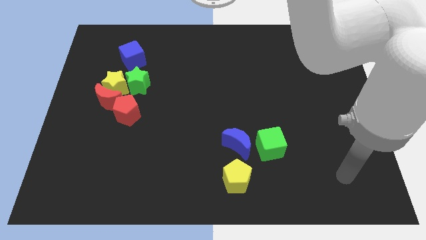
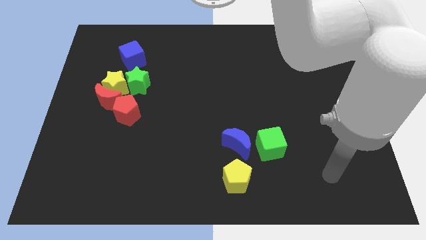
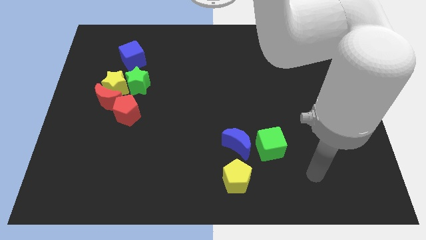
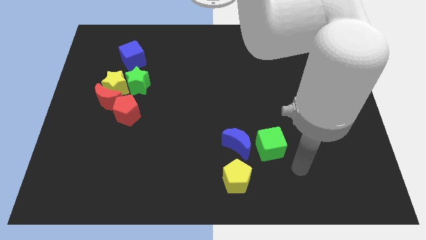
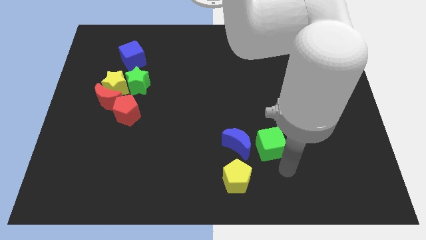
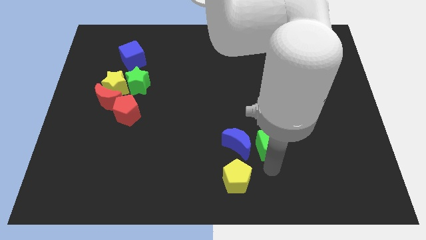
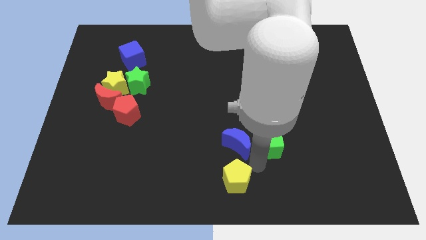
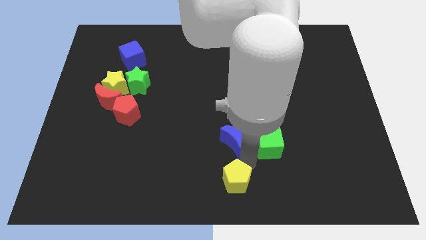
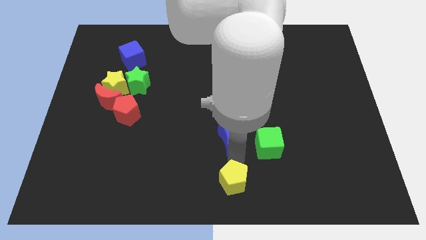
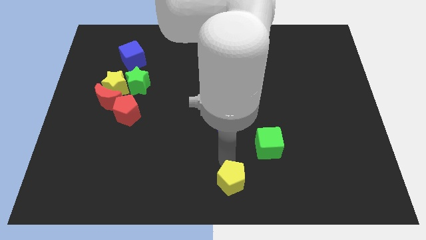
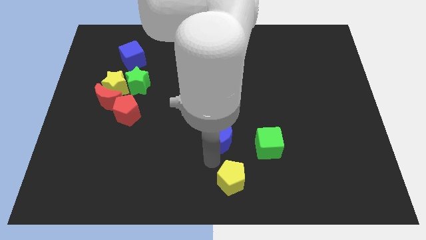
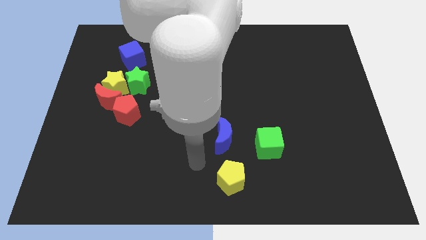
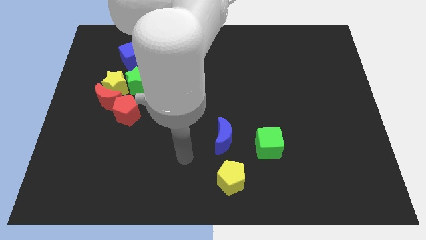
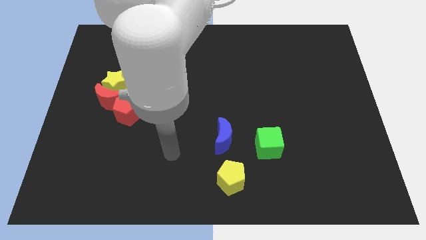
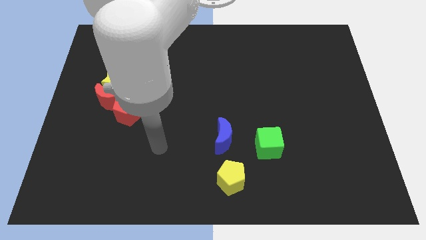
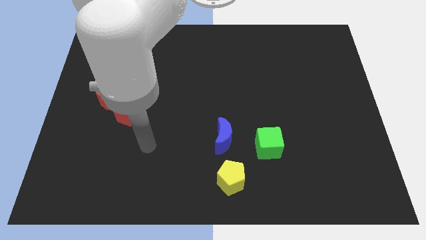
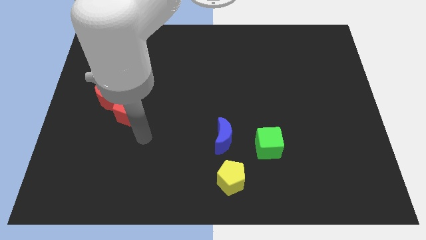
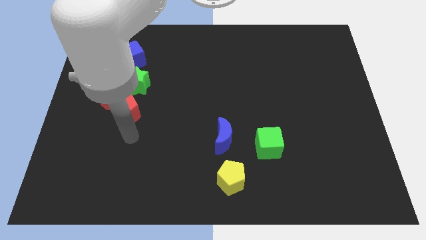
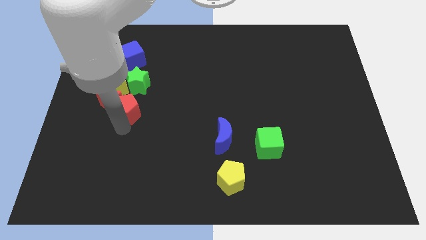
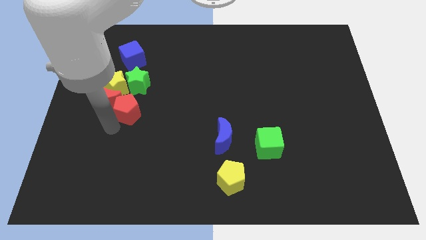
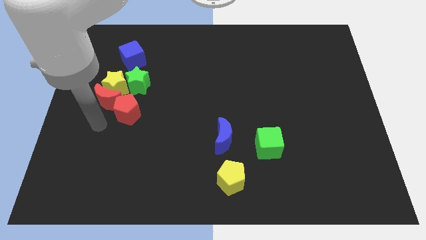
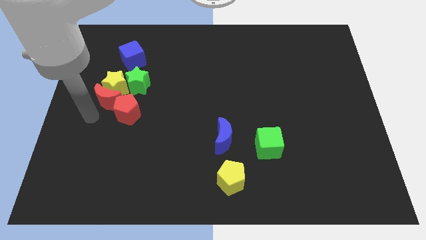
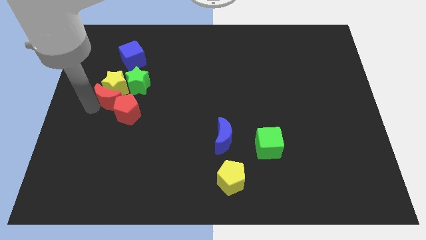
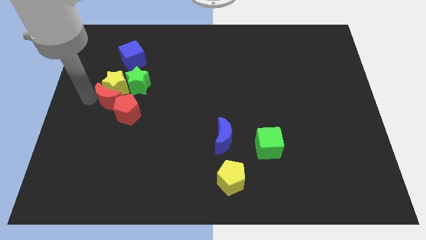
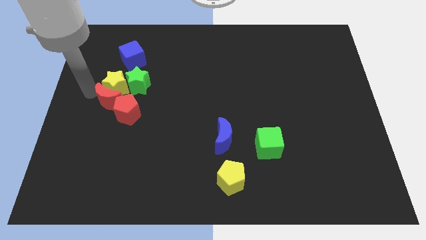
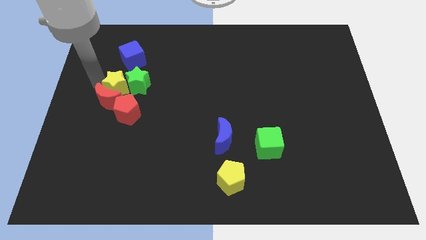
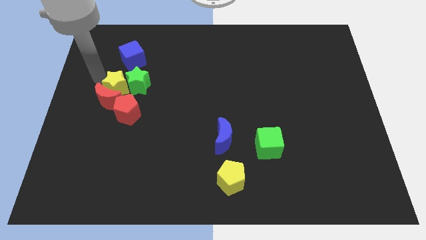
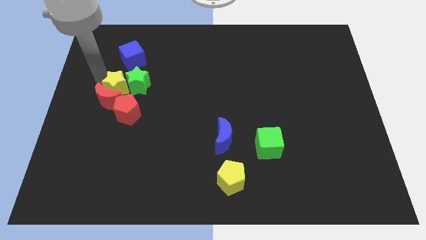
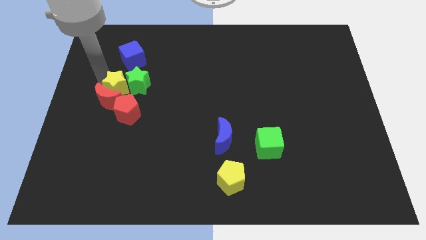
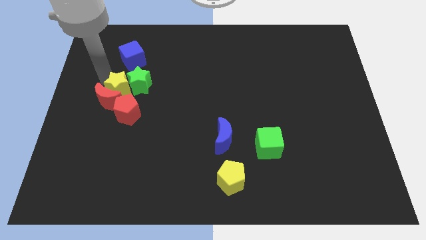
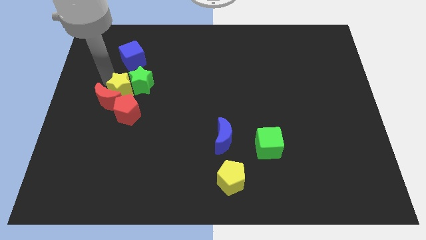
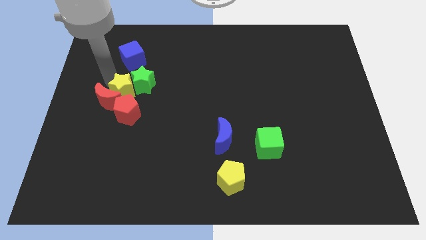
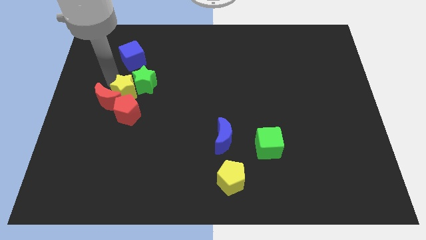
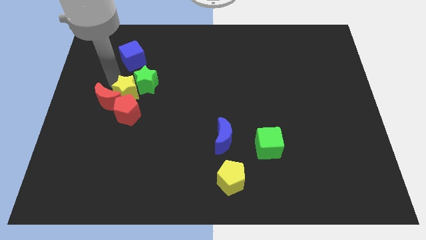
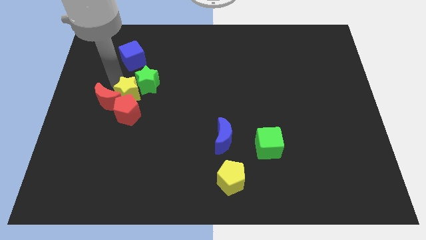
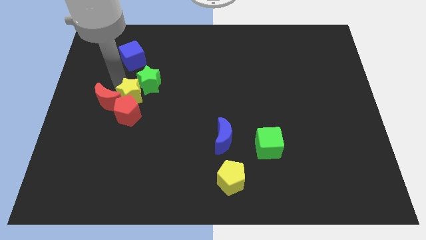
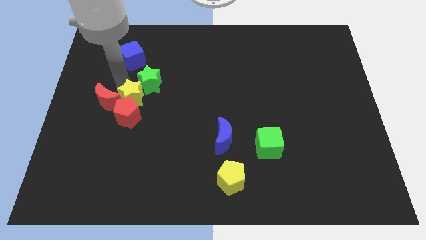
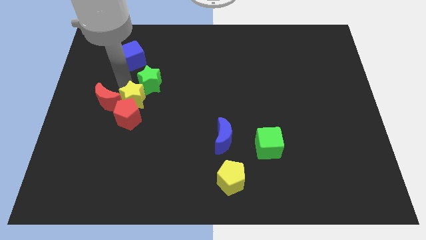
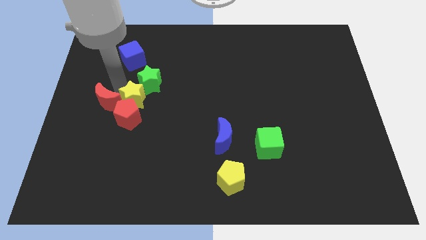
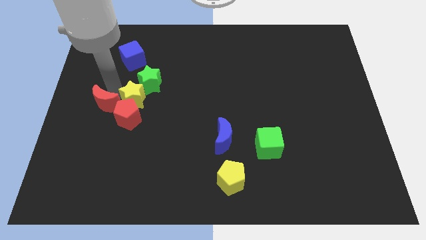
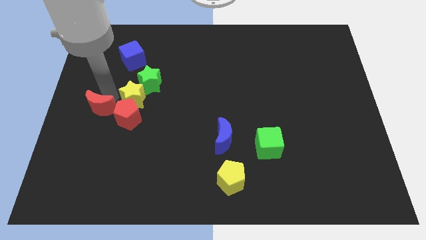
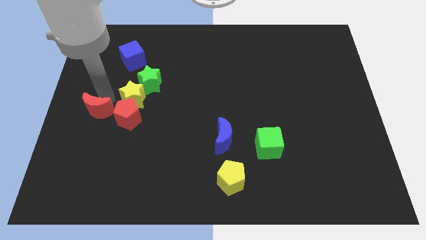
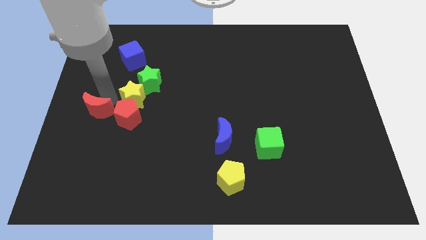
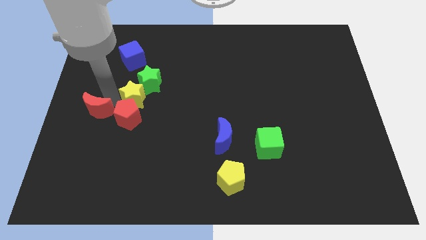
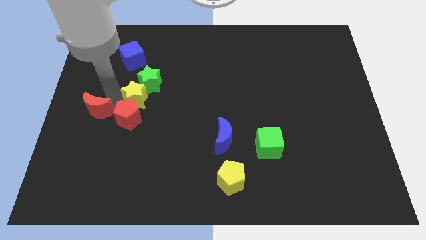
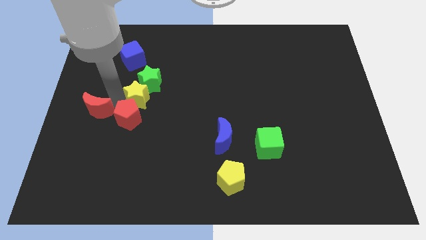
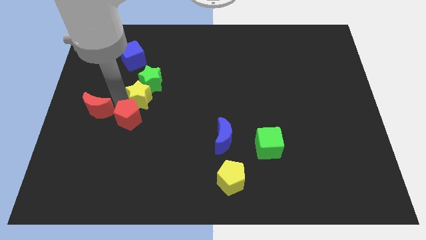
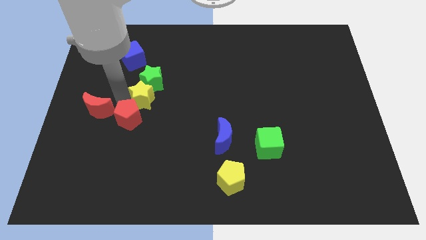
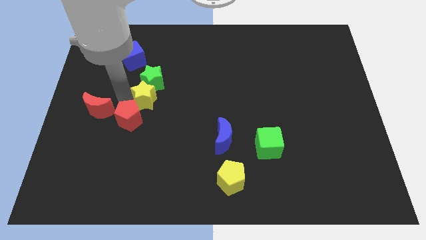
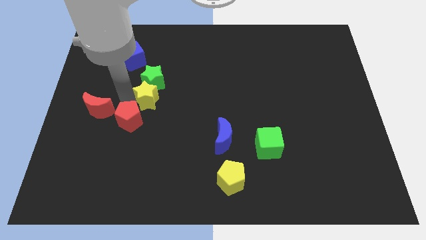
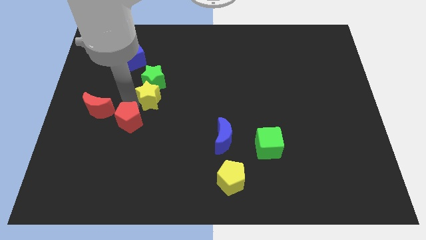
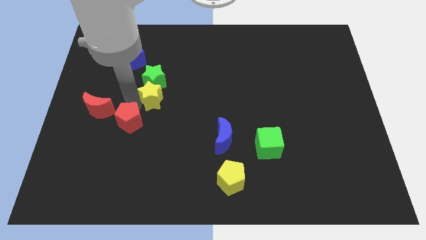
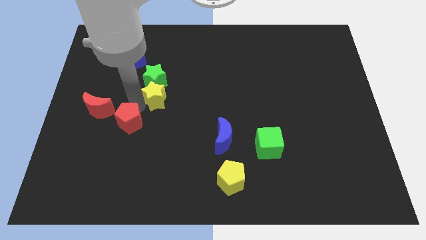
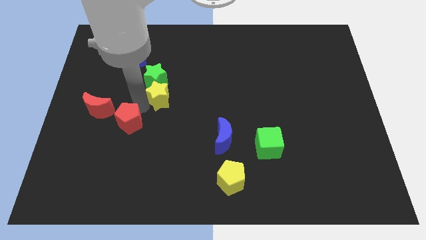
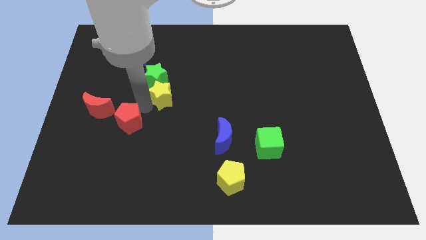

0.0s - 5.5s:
put the yellow star to the center
